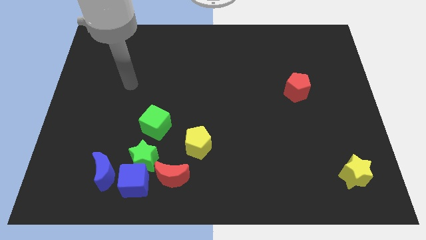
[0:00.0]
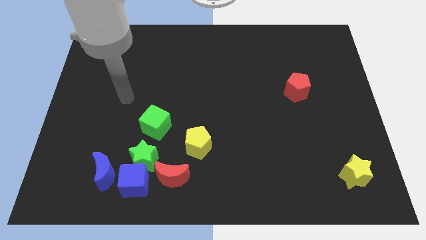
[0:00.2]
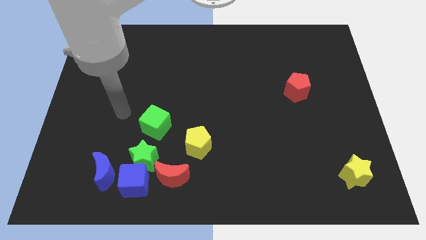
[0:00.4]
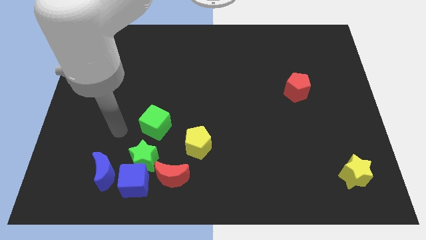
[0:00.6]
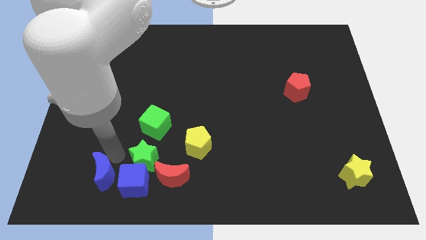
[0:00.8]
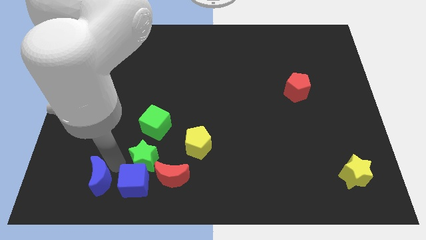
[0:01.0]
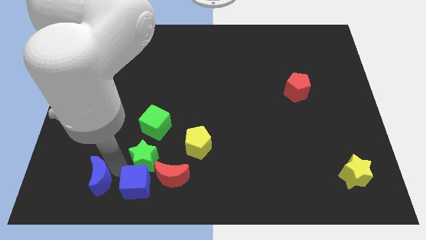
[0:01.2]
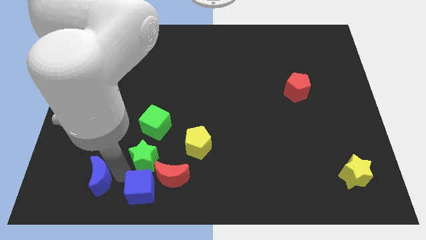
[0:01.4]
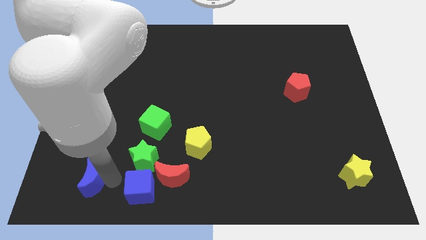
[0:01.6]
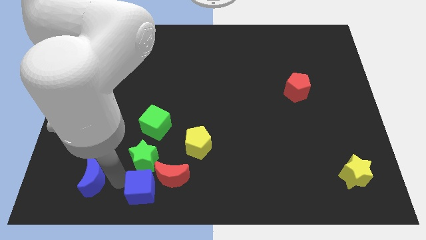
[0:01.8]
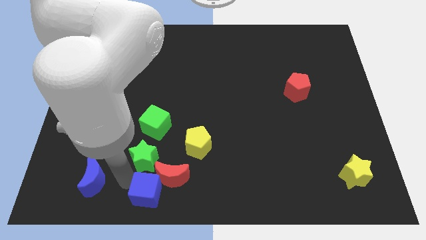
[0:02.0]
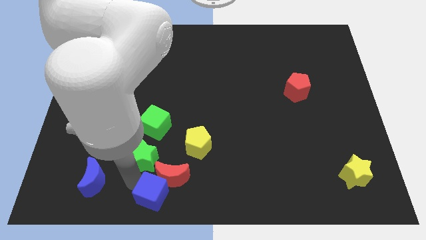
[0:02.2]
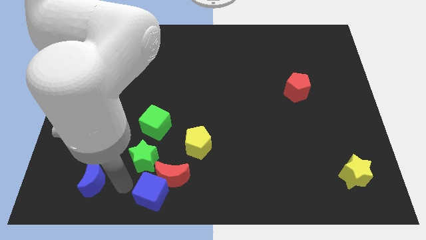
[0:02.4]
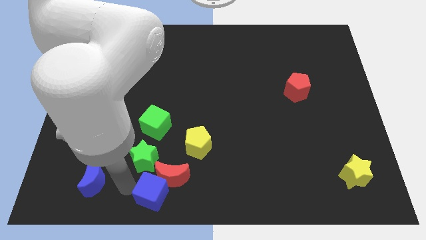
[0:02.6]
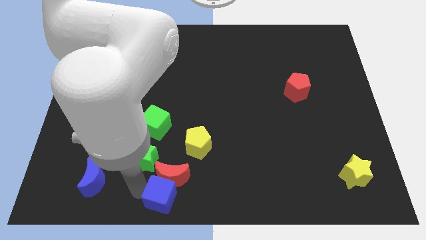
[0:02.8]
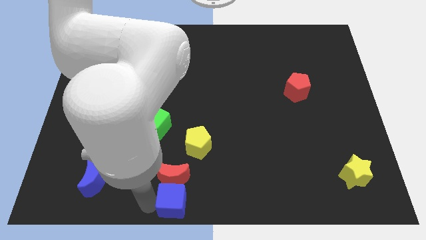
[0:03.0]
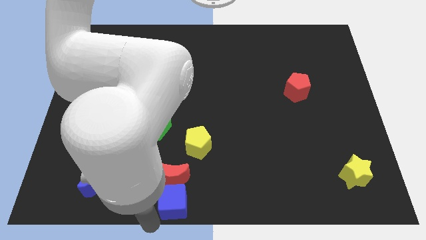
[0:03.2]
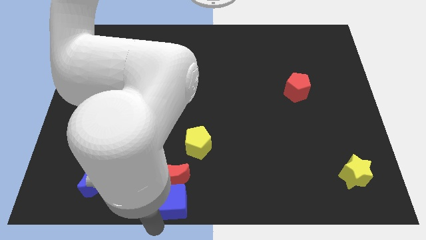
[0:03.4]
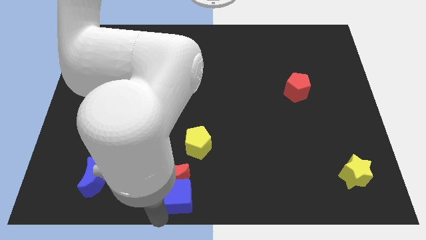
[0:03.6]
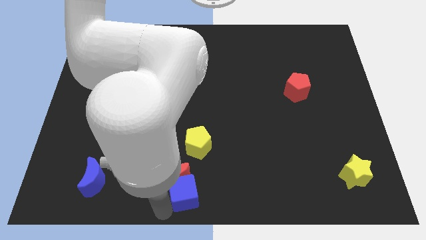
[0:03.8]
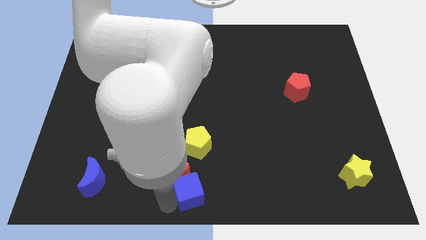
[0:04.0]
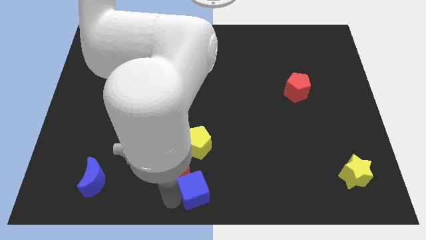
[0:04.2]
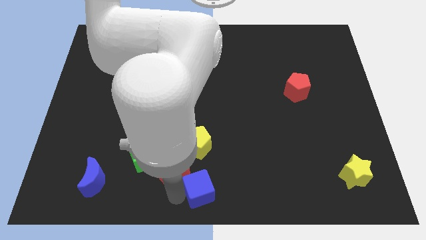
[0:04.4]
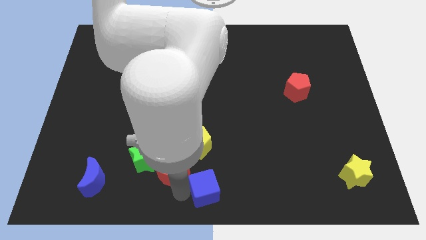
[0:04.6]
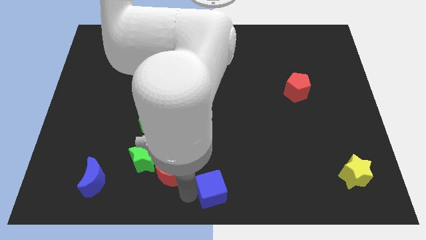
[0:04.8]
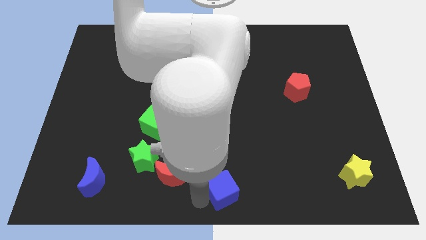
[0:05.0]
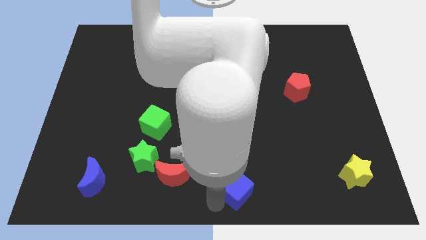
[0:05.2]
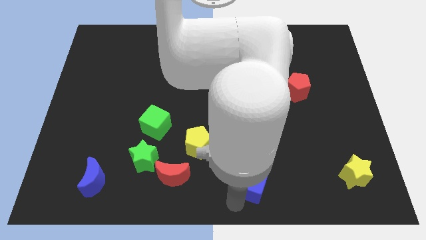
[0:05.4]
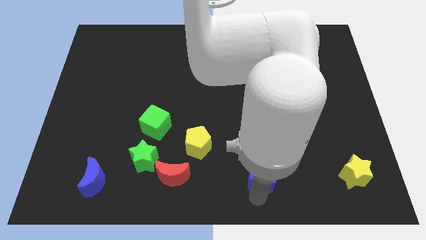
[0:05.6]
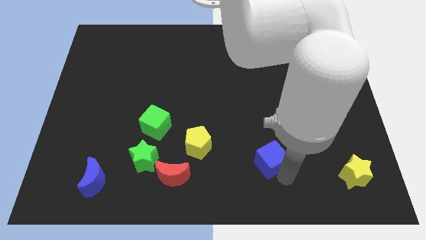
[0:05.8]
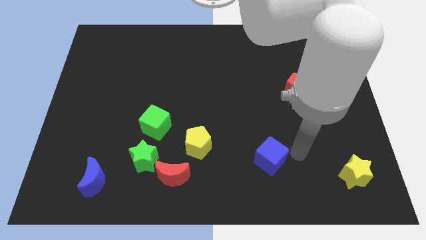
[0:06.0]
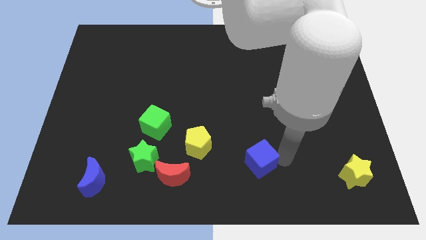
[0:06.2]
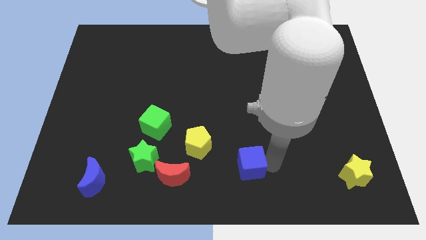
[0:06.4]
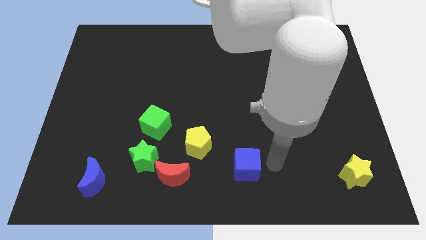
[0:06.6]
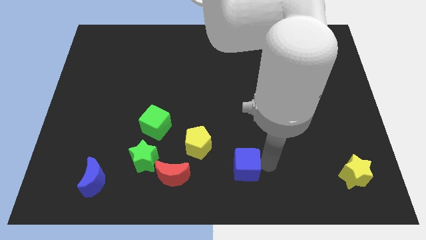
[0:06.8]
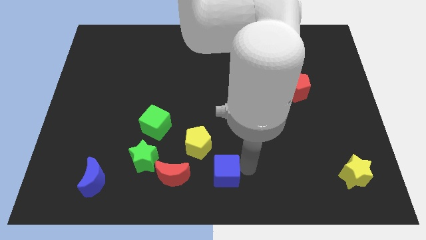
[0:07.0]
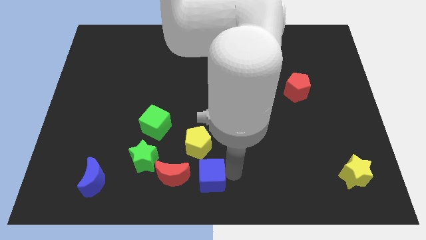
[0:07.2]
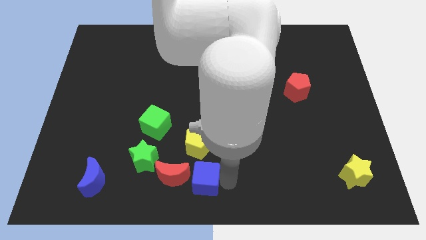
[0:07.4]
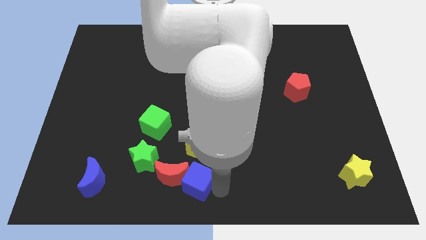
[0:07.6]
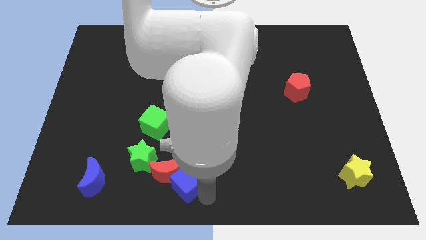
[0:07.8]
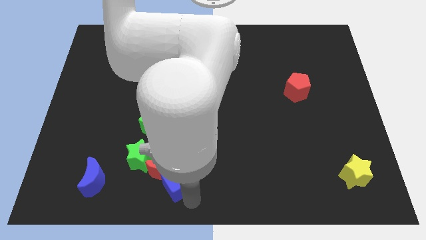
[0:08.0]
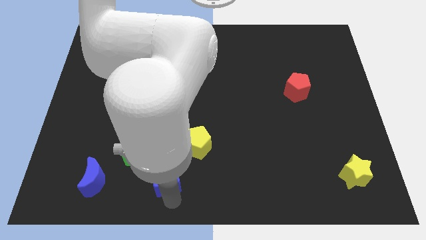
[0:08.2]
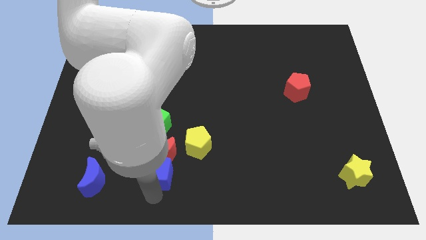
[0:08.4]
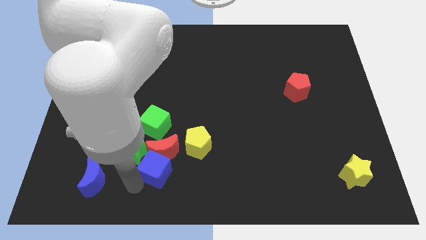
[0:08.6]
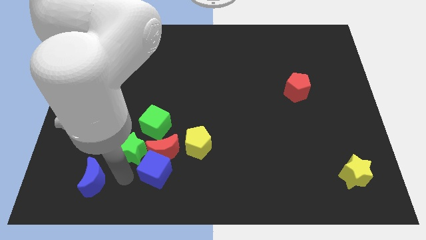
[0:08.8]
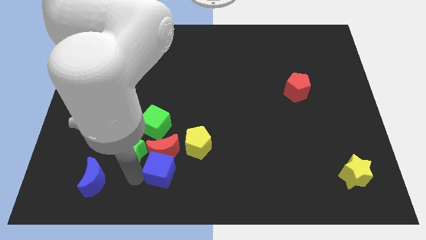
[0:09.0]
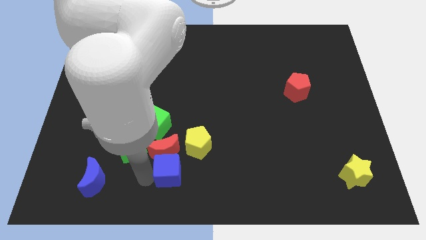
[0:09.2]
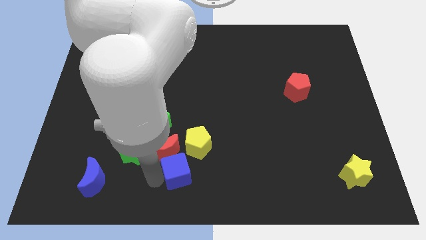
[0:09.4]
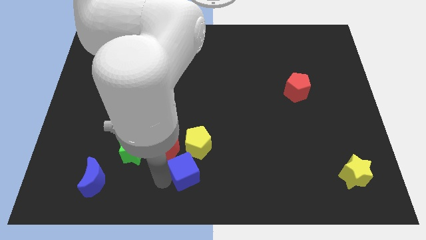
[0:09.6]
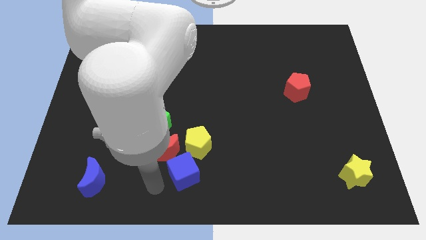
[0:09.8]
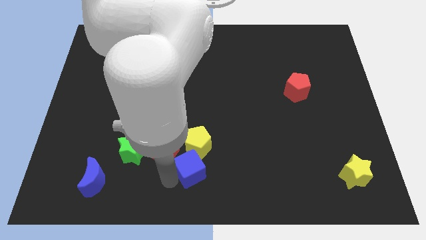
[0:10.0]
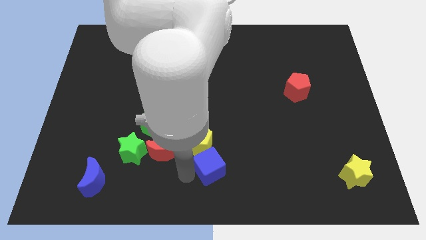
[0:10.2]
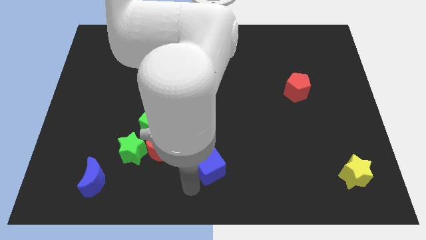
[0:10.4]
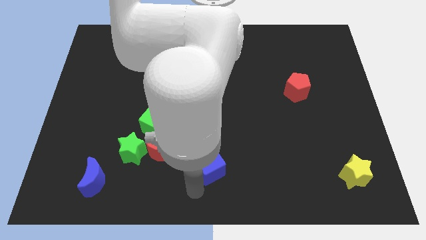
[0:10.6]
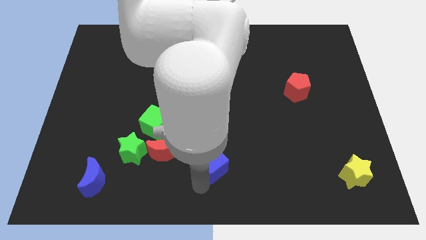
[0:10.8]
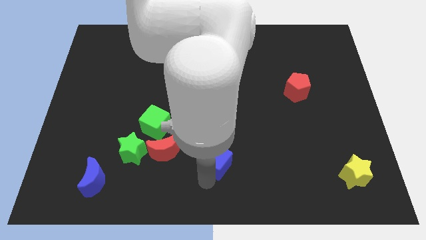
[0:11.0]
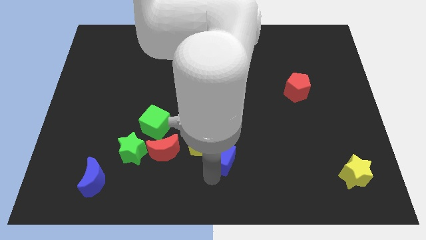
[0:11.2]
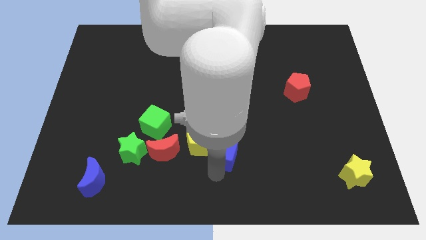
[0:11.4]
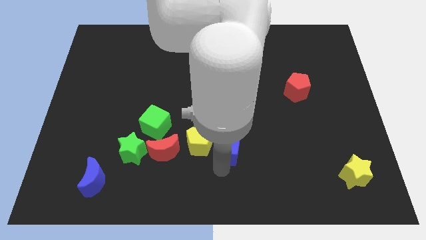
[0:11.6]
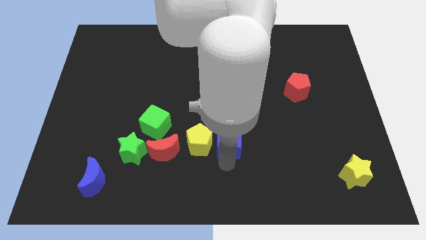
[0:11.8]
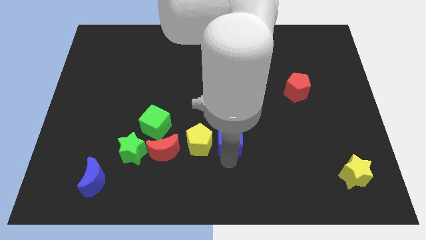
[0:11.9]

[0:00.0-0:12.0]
put the blue cube to the middle

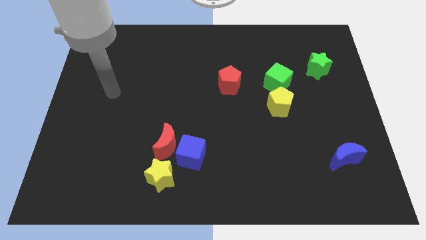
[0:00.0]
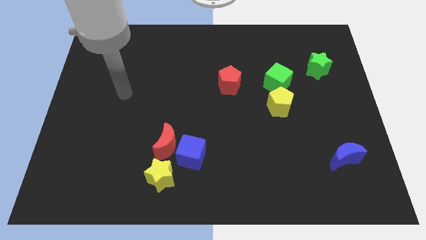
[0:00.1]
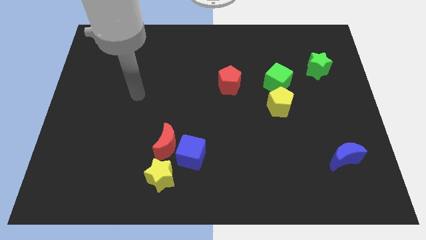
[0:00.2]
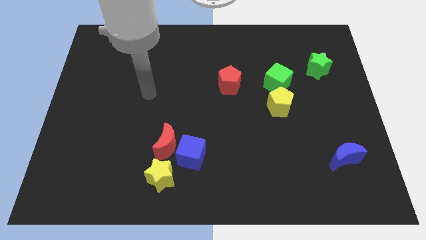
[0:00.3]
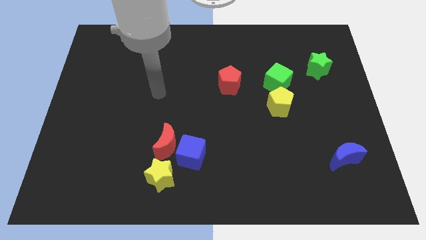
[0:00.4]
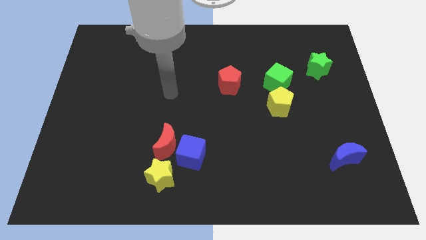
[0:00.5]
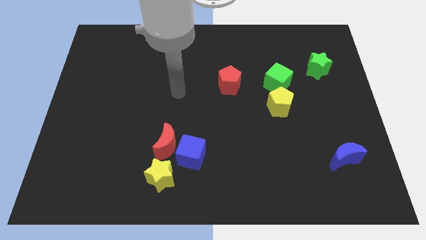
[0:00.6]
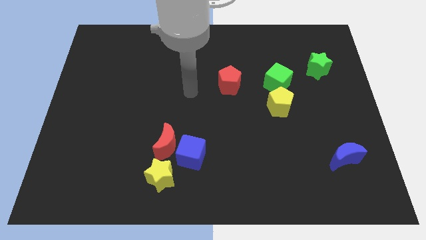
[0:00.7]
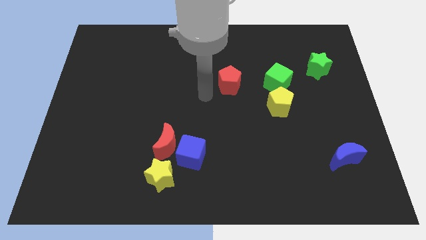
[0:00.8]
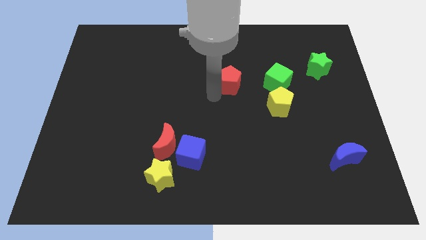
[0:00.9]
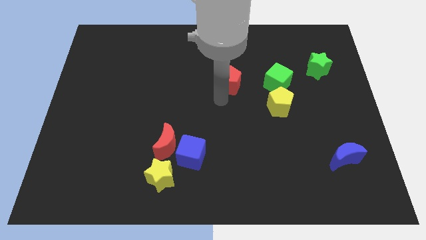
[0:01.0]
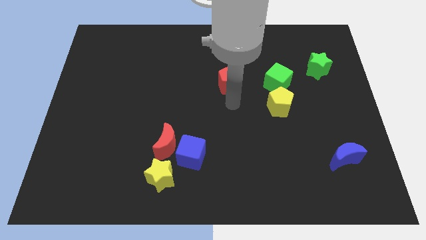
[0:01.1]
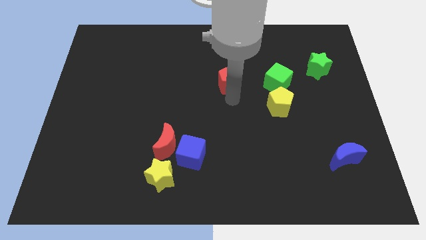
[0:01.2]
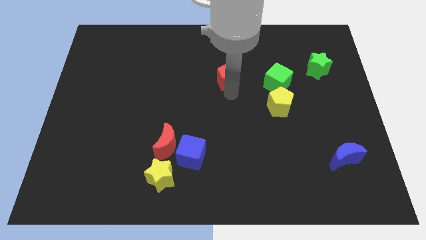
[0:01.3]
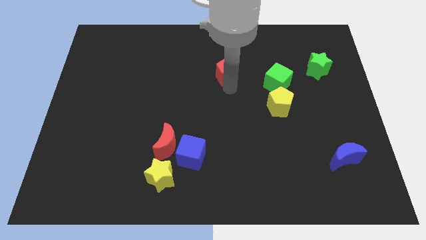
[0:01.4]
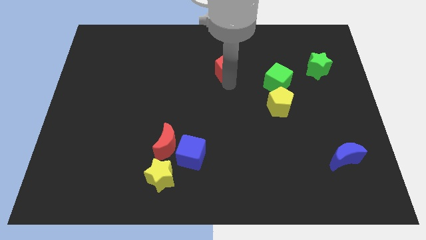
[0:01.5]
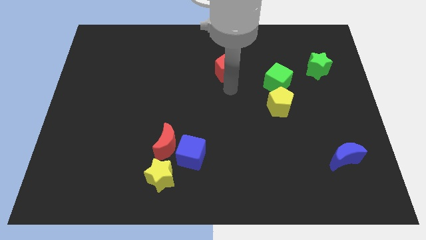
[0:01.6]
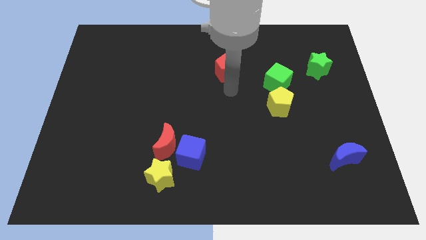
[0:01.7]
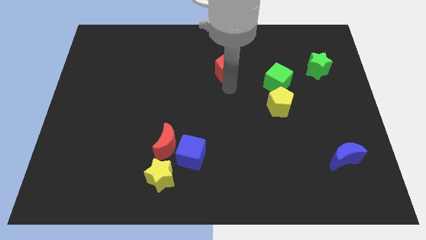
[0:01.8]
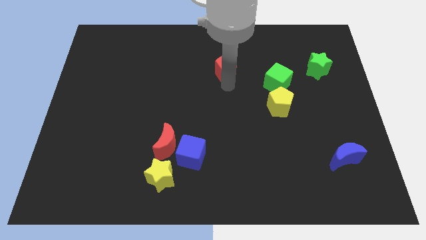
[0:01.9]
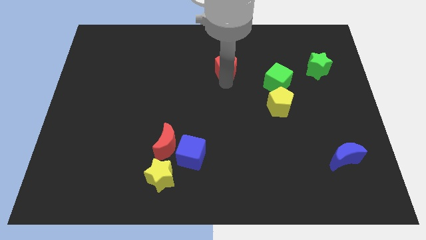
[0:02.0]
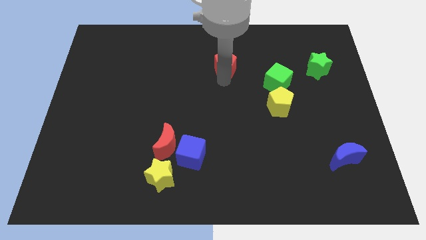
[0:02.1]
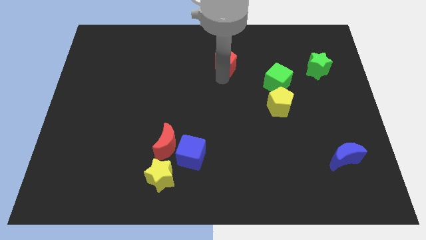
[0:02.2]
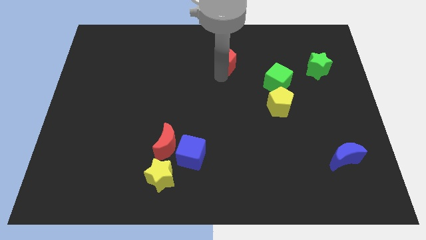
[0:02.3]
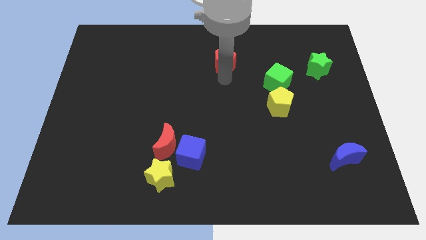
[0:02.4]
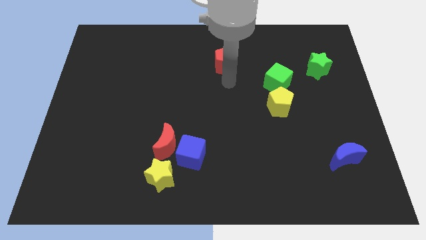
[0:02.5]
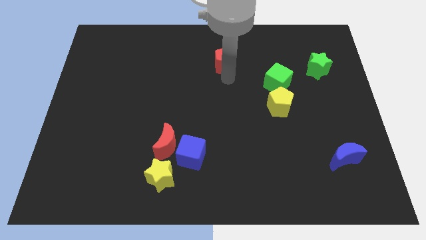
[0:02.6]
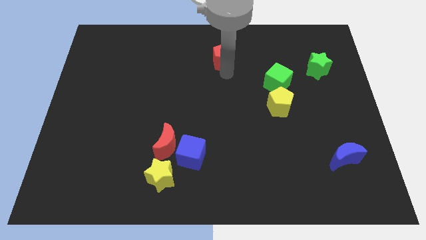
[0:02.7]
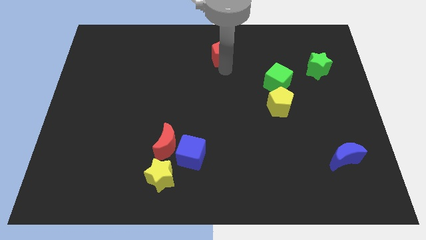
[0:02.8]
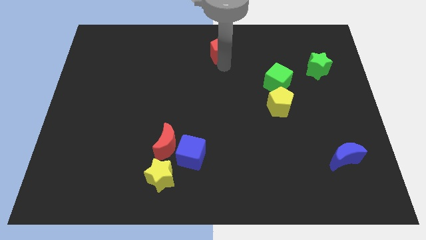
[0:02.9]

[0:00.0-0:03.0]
push the red pentagon to the top side
